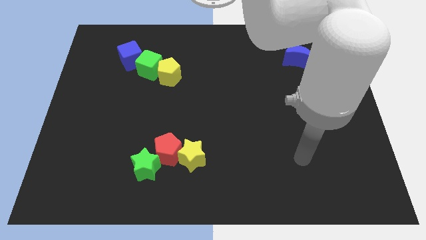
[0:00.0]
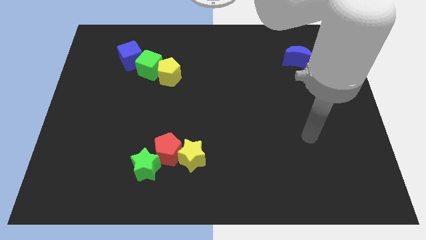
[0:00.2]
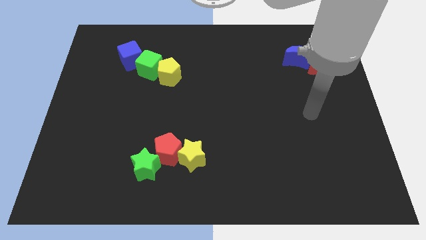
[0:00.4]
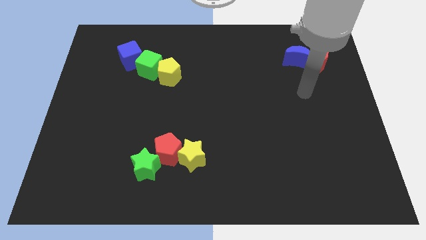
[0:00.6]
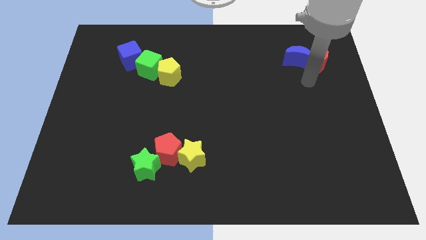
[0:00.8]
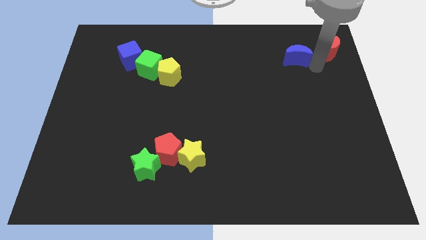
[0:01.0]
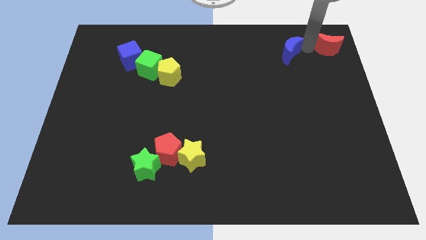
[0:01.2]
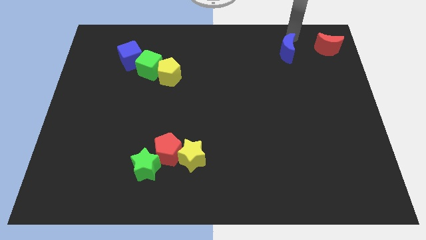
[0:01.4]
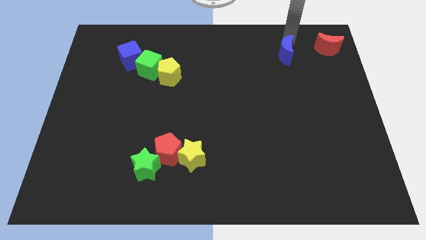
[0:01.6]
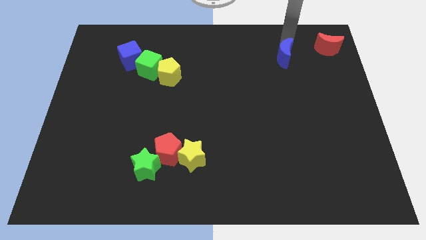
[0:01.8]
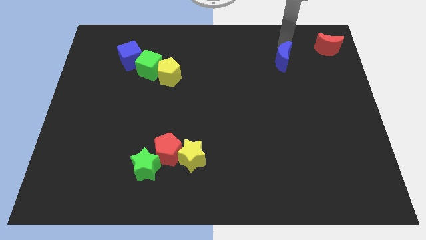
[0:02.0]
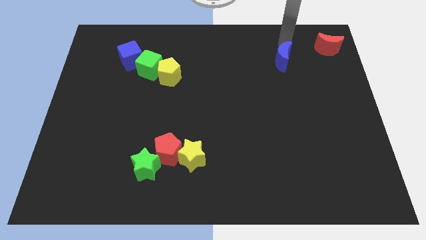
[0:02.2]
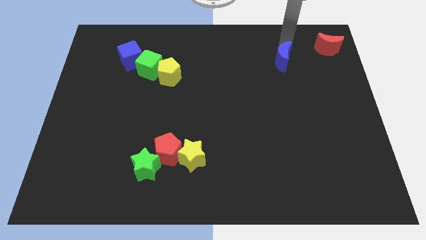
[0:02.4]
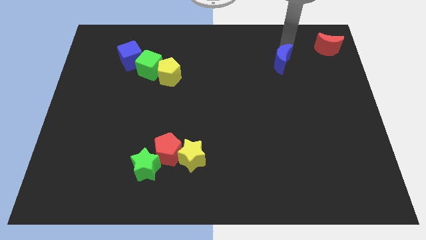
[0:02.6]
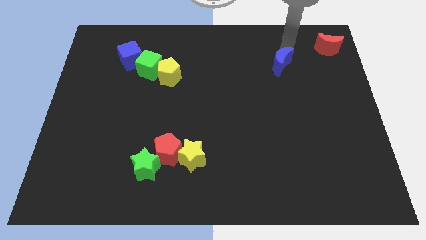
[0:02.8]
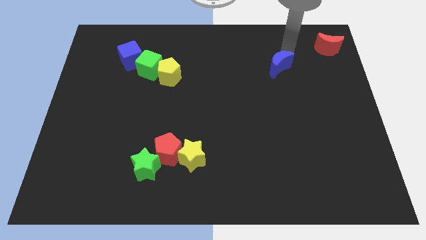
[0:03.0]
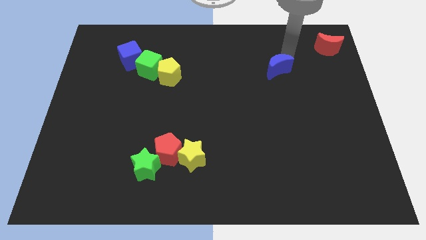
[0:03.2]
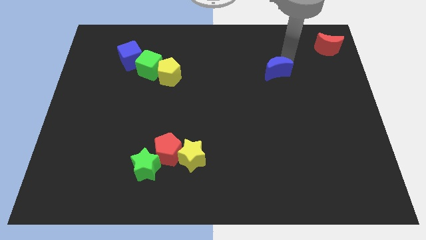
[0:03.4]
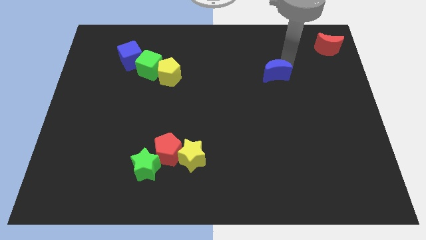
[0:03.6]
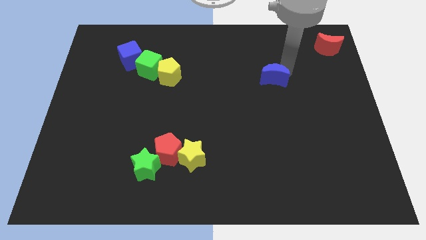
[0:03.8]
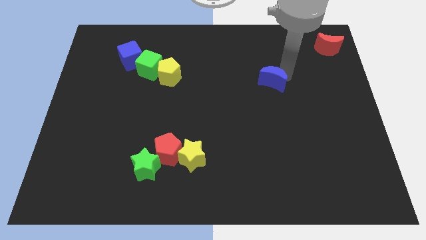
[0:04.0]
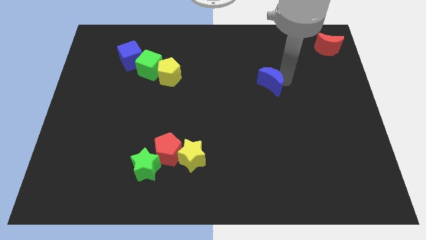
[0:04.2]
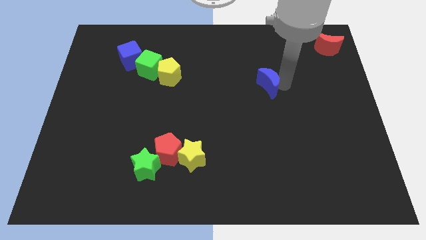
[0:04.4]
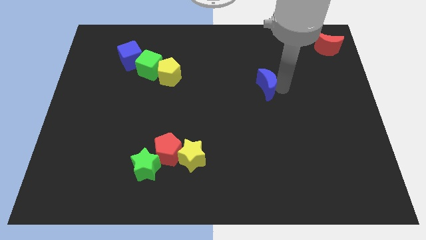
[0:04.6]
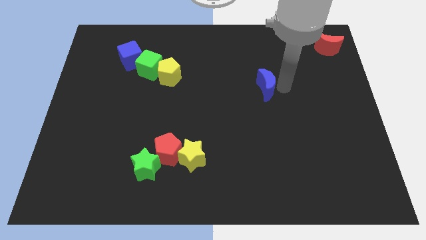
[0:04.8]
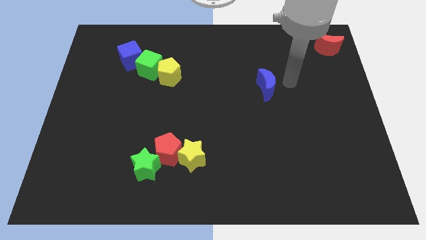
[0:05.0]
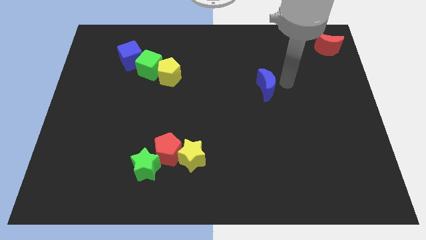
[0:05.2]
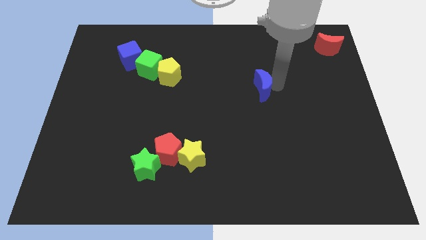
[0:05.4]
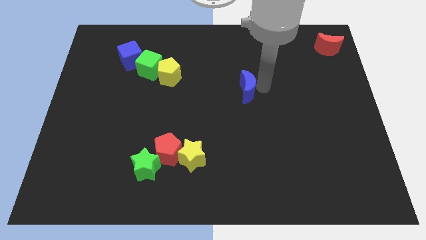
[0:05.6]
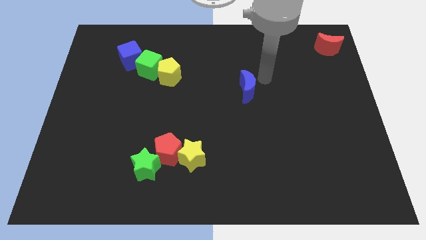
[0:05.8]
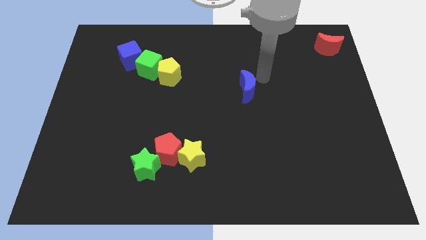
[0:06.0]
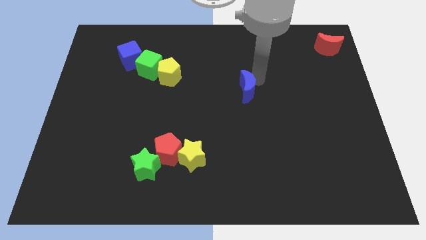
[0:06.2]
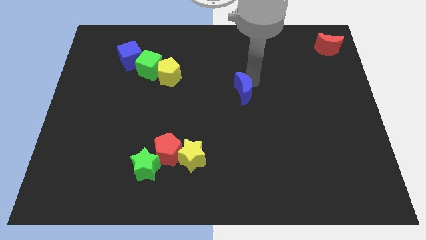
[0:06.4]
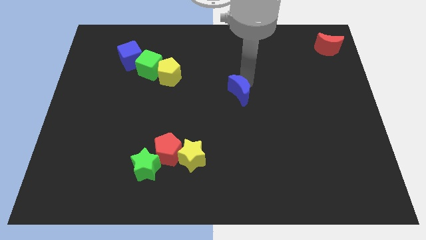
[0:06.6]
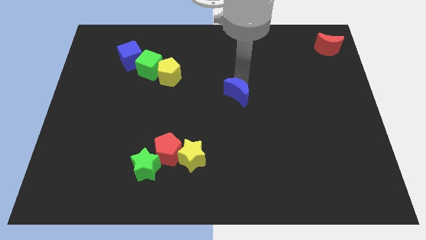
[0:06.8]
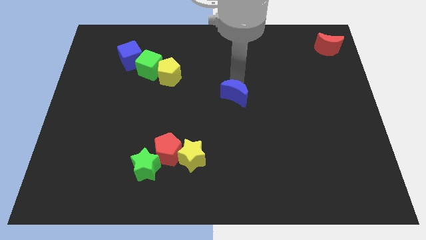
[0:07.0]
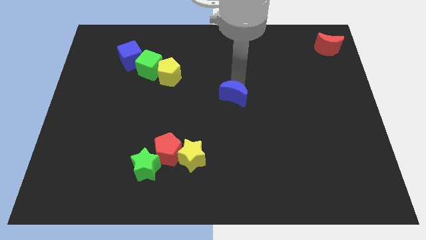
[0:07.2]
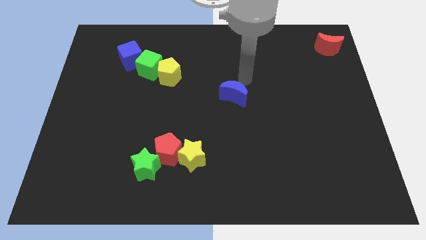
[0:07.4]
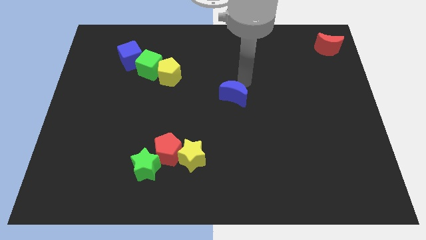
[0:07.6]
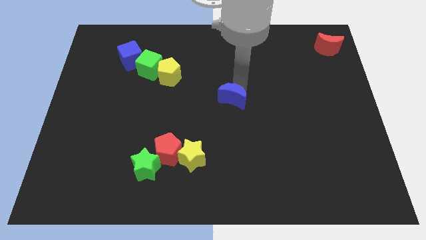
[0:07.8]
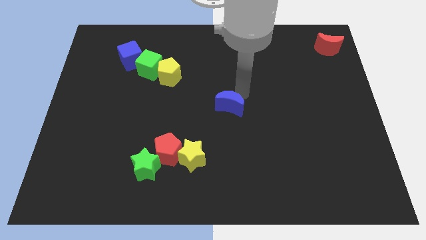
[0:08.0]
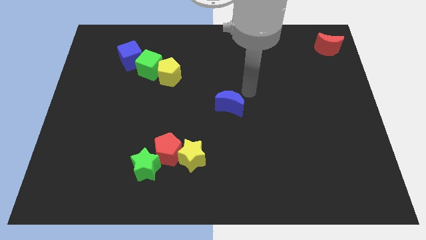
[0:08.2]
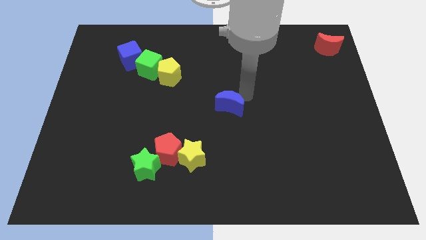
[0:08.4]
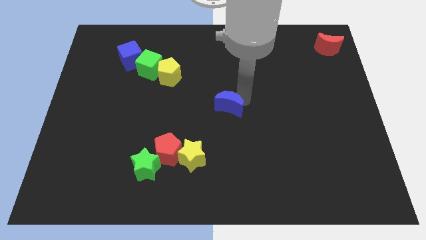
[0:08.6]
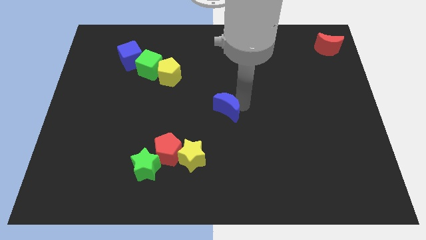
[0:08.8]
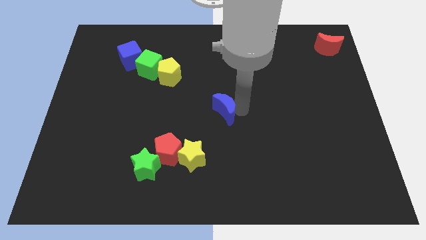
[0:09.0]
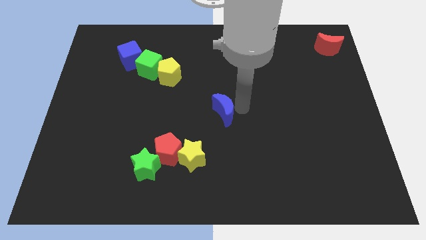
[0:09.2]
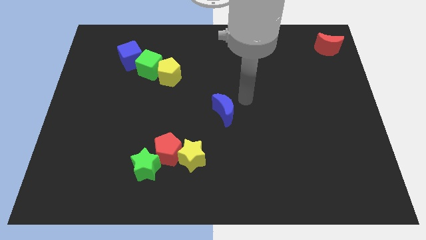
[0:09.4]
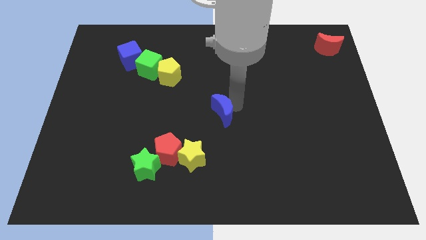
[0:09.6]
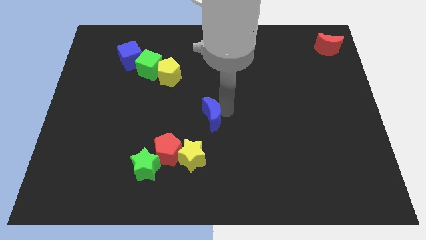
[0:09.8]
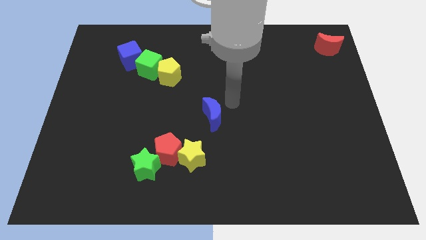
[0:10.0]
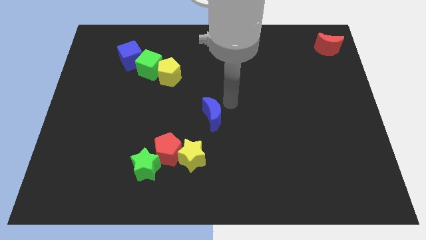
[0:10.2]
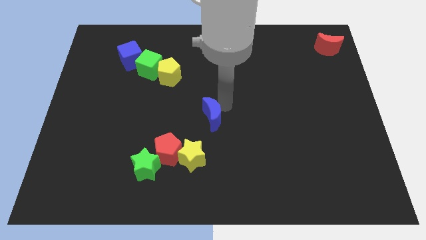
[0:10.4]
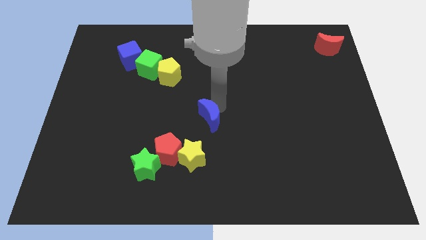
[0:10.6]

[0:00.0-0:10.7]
slide the blue moon to the top right side of the red pentagon

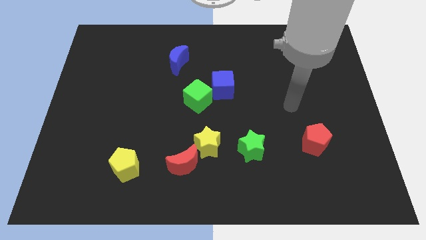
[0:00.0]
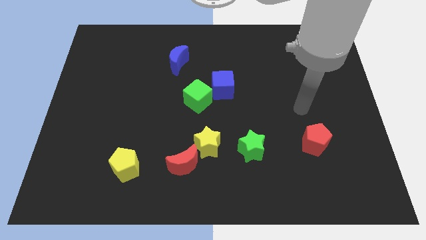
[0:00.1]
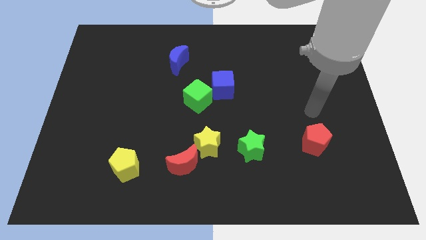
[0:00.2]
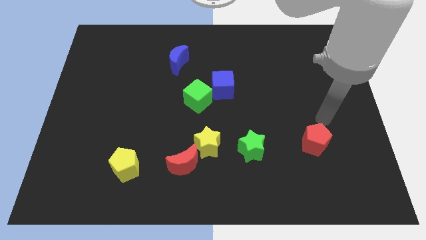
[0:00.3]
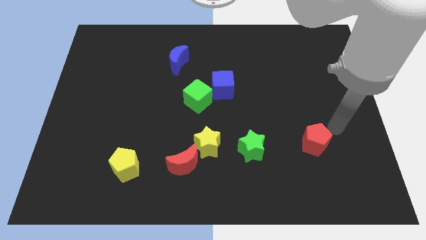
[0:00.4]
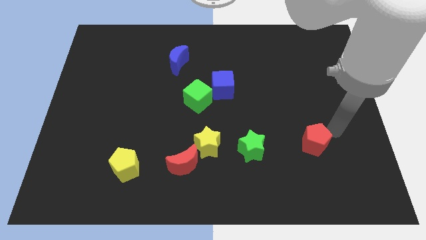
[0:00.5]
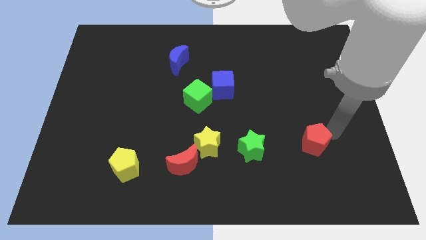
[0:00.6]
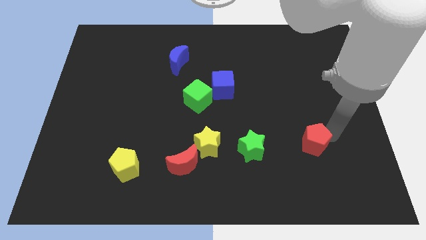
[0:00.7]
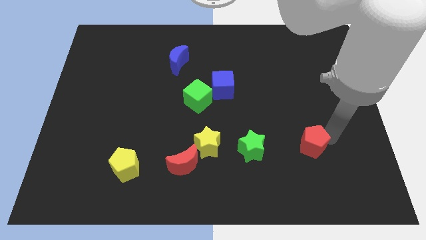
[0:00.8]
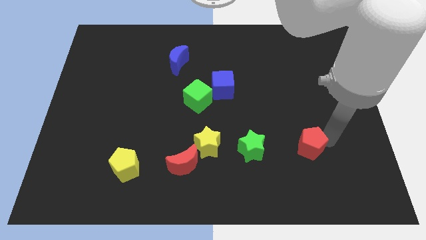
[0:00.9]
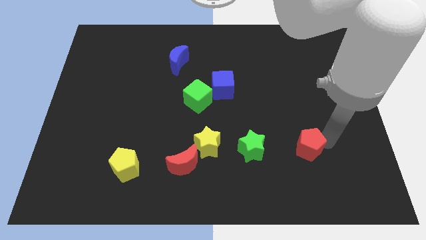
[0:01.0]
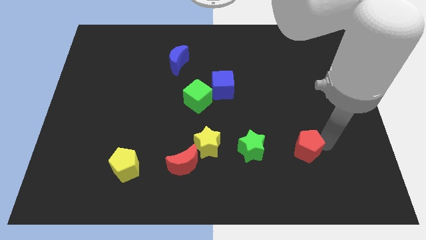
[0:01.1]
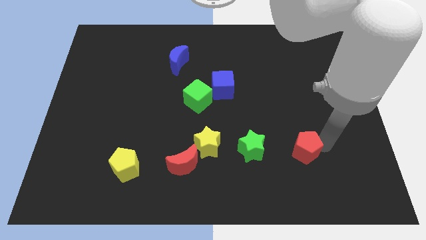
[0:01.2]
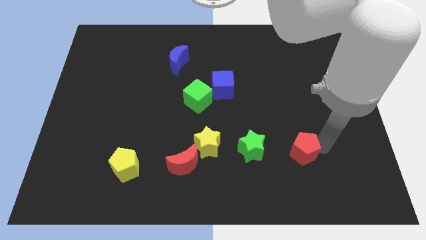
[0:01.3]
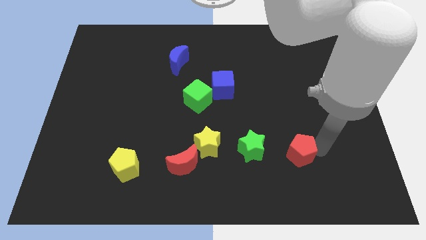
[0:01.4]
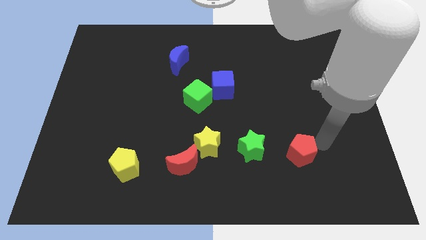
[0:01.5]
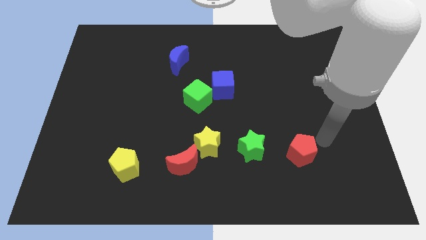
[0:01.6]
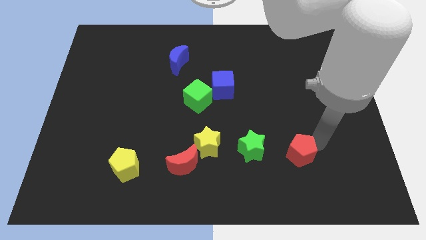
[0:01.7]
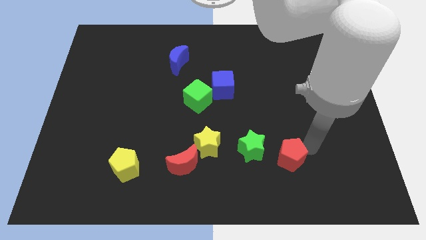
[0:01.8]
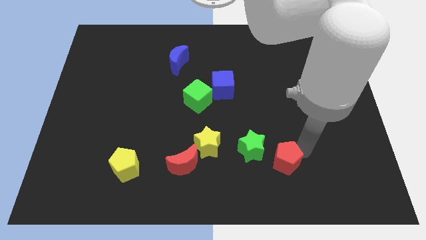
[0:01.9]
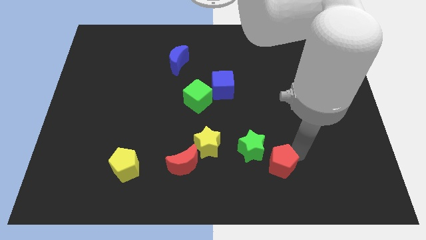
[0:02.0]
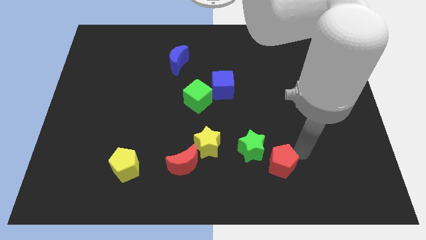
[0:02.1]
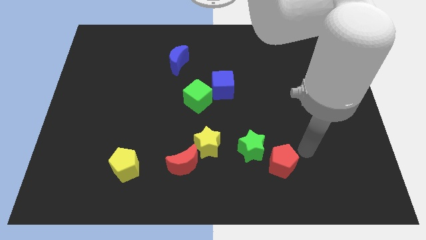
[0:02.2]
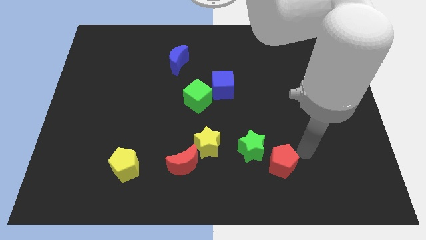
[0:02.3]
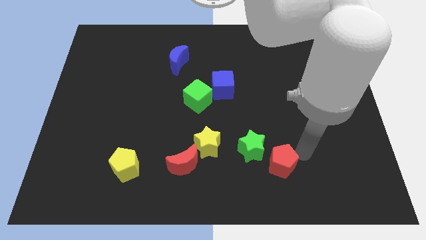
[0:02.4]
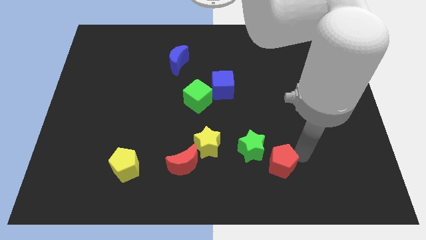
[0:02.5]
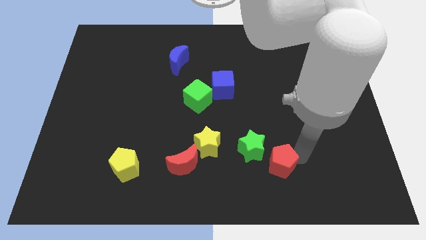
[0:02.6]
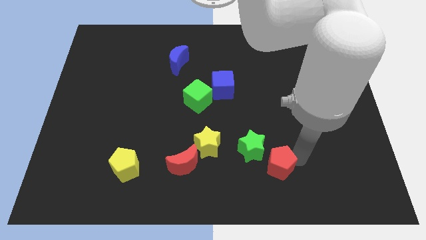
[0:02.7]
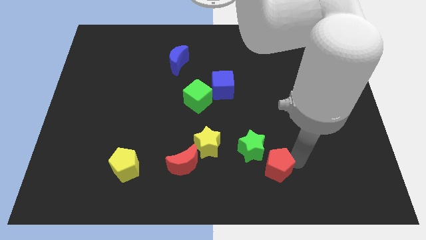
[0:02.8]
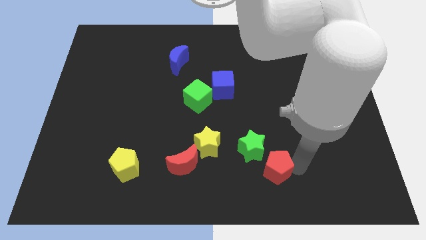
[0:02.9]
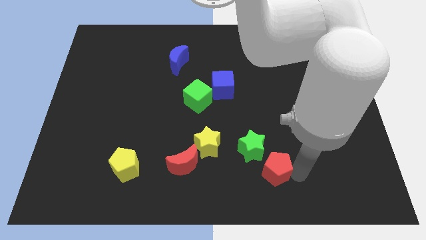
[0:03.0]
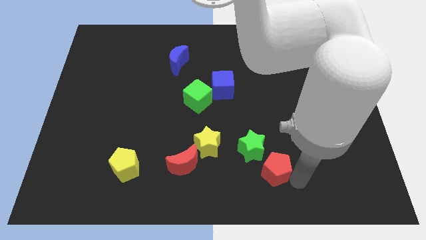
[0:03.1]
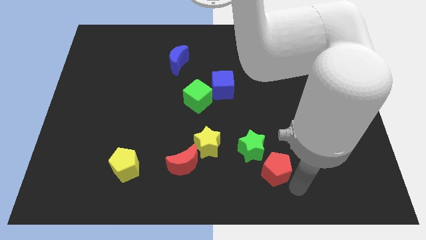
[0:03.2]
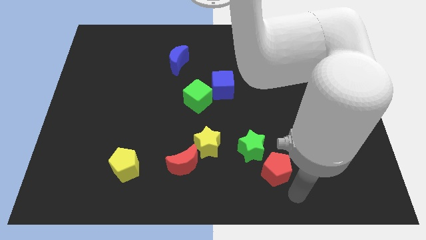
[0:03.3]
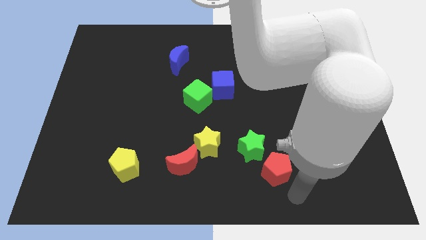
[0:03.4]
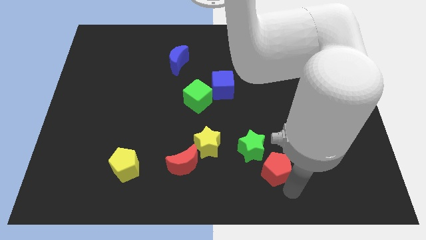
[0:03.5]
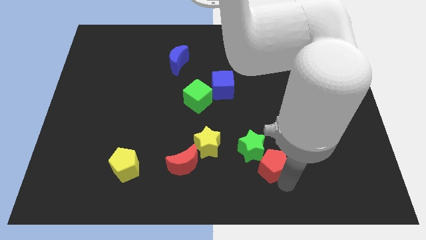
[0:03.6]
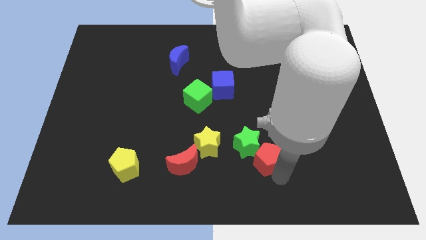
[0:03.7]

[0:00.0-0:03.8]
put the red pentagon just right of the yellow star
